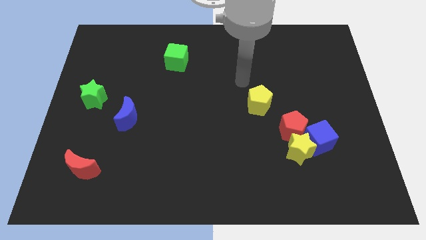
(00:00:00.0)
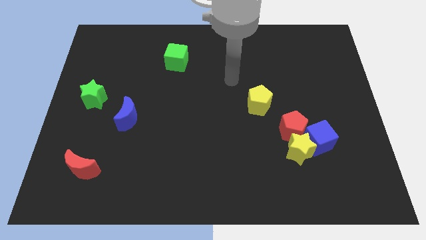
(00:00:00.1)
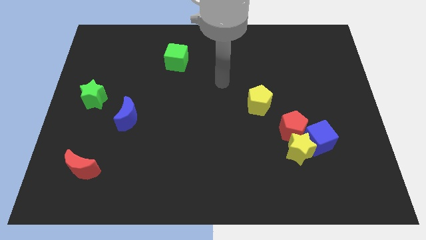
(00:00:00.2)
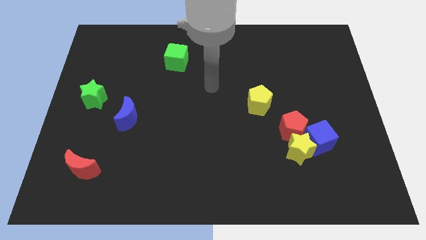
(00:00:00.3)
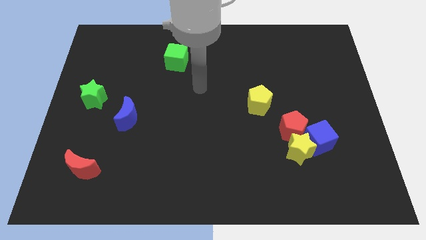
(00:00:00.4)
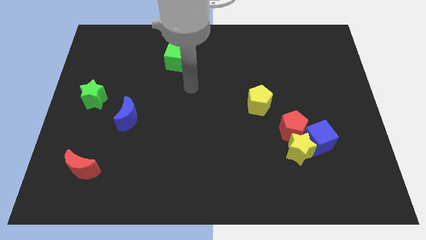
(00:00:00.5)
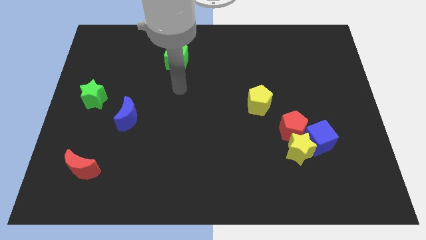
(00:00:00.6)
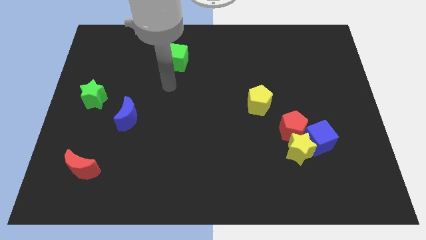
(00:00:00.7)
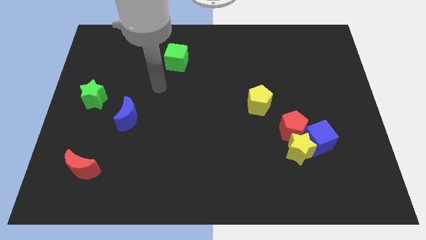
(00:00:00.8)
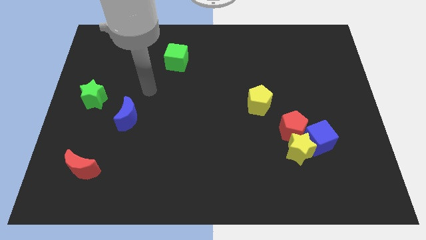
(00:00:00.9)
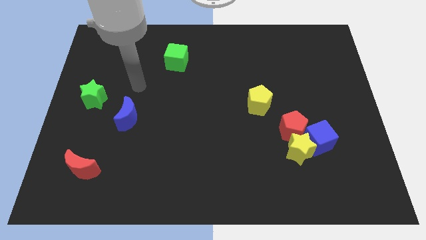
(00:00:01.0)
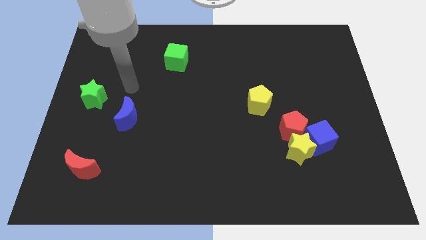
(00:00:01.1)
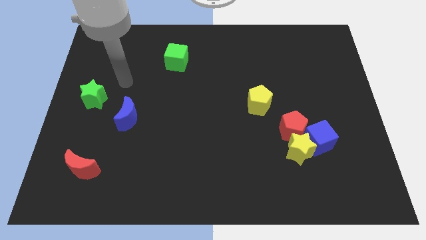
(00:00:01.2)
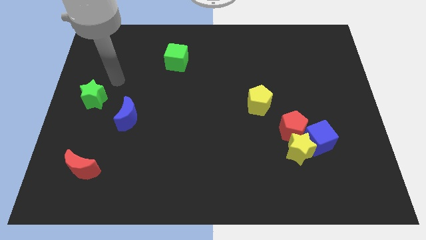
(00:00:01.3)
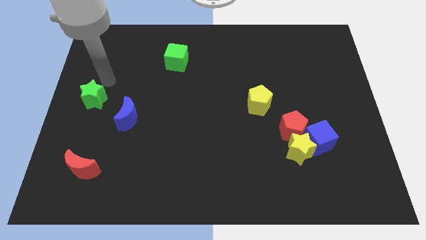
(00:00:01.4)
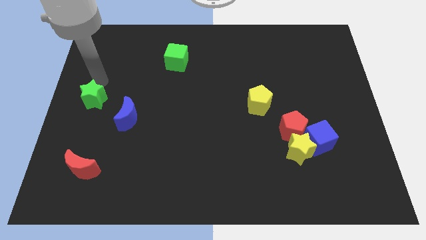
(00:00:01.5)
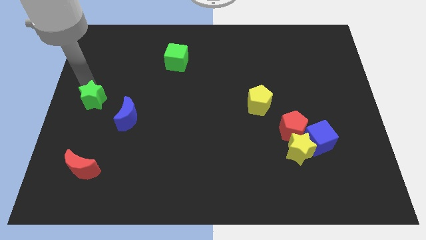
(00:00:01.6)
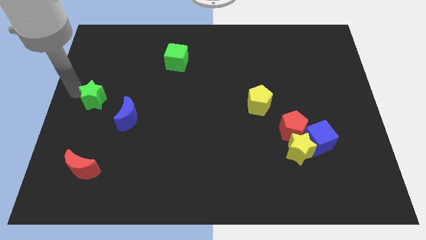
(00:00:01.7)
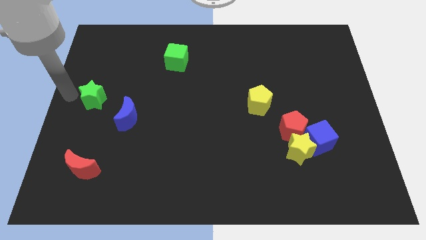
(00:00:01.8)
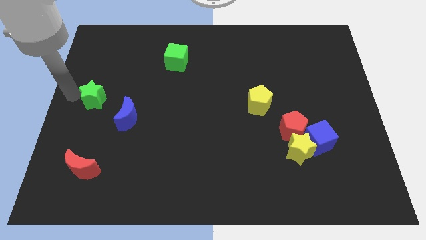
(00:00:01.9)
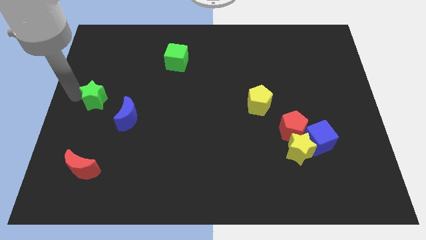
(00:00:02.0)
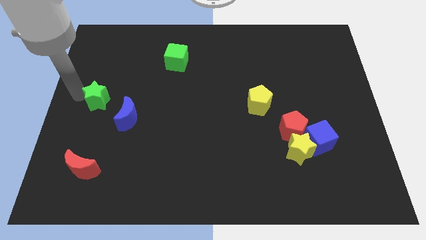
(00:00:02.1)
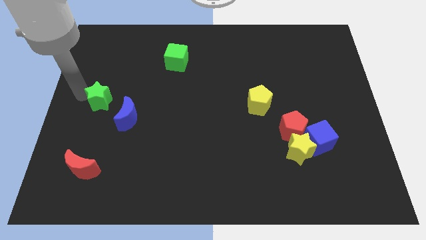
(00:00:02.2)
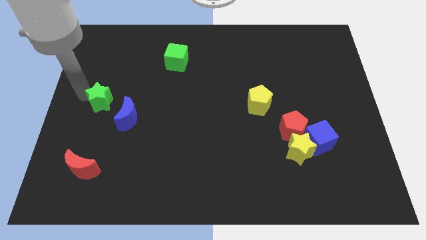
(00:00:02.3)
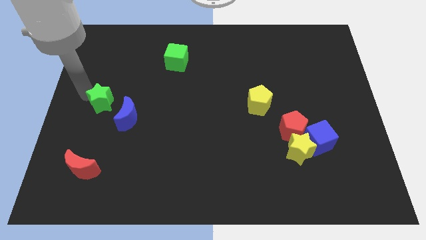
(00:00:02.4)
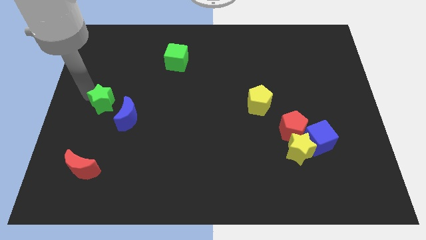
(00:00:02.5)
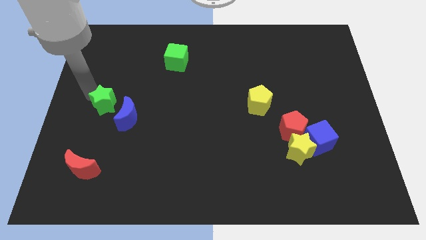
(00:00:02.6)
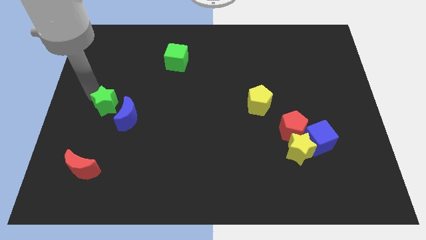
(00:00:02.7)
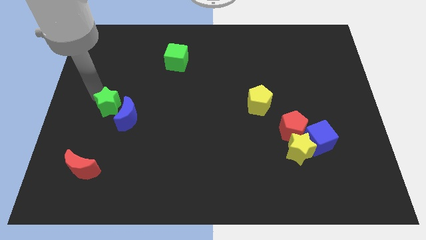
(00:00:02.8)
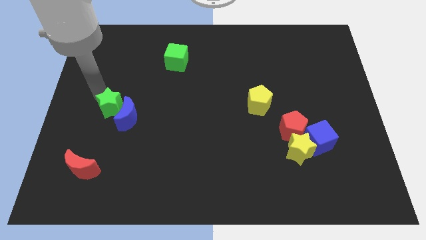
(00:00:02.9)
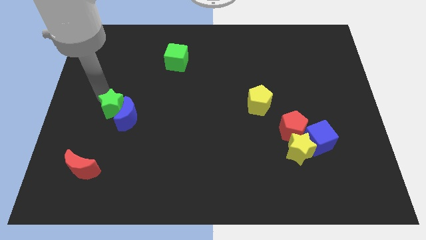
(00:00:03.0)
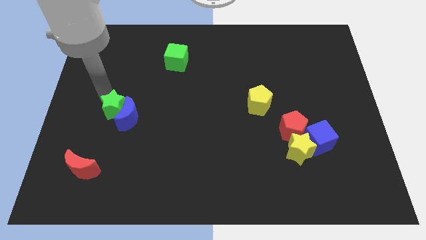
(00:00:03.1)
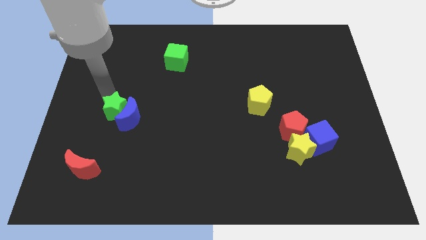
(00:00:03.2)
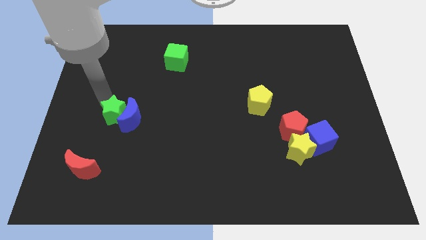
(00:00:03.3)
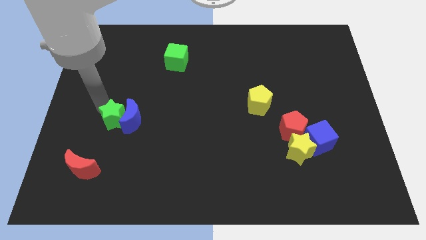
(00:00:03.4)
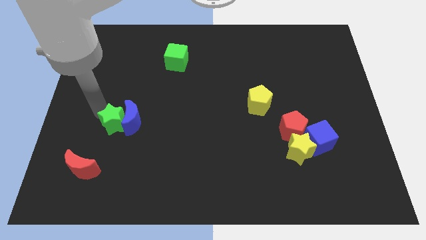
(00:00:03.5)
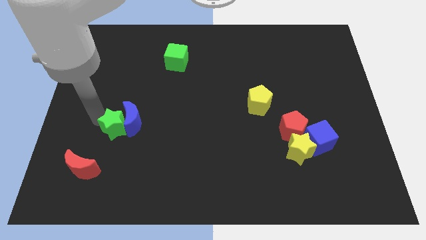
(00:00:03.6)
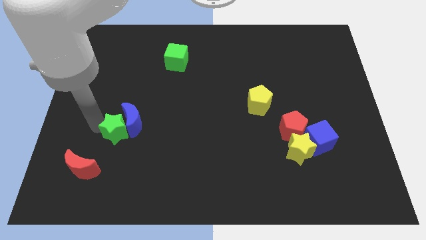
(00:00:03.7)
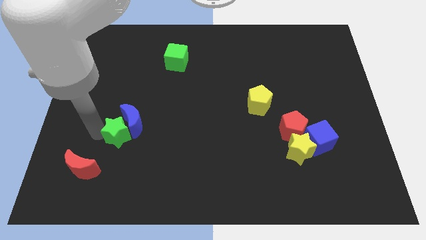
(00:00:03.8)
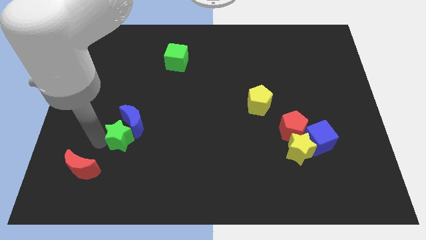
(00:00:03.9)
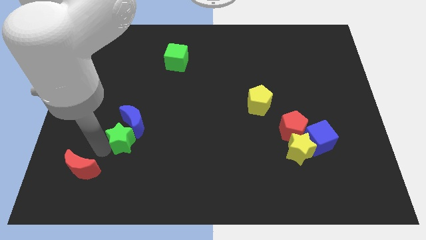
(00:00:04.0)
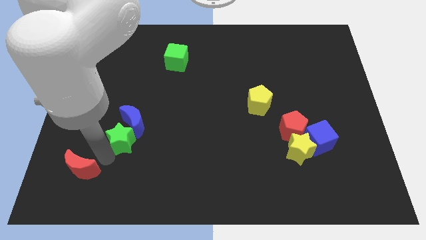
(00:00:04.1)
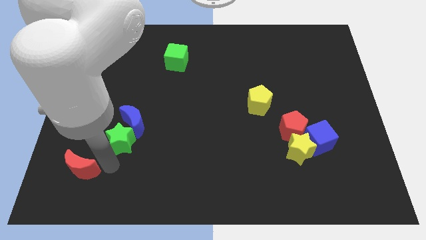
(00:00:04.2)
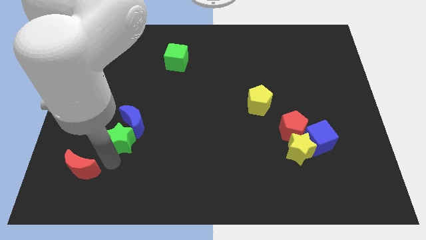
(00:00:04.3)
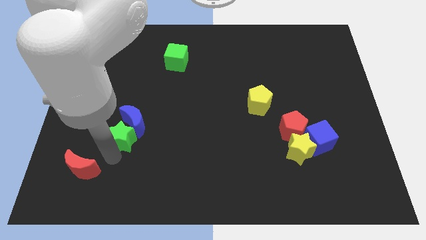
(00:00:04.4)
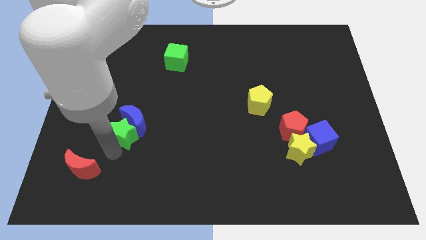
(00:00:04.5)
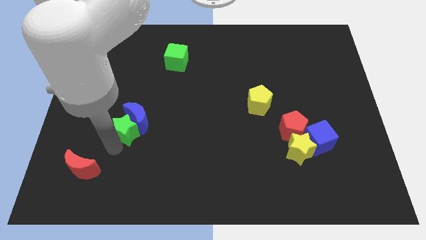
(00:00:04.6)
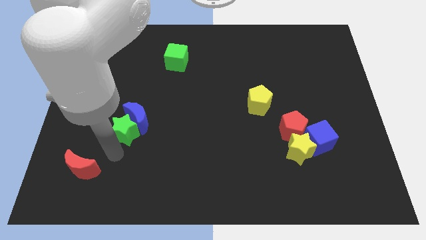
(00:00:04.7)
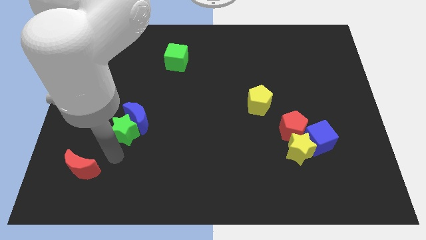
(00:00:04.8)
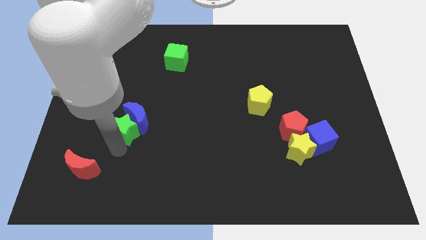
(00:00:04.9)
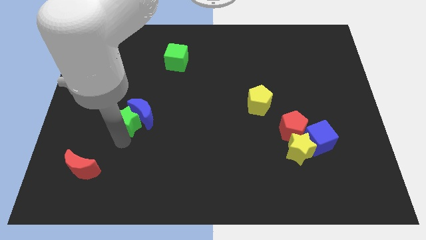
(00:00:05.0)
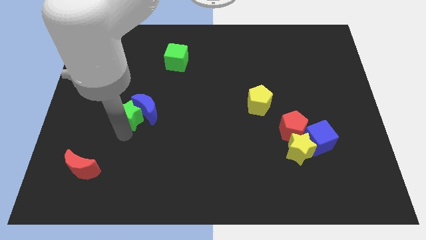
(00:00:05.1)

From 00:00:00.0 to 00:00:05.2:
move the green star slightly right

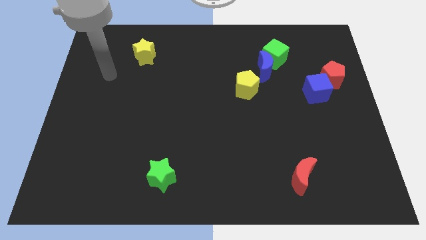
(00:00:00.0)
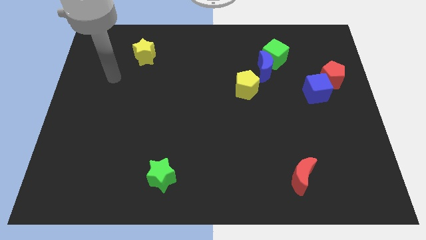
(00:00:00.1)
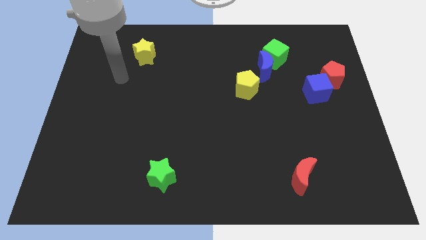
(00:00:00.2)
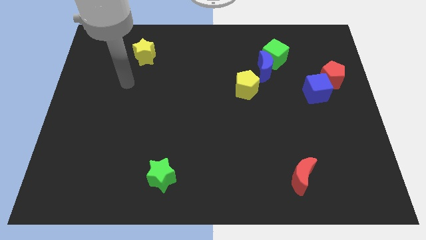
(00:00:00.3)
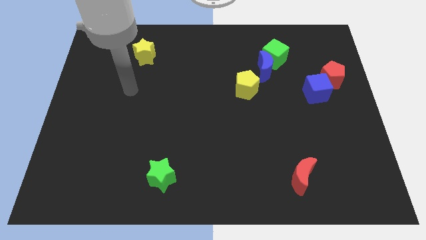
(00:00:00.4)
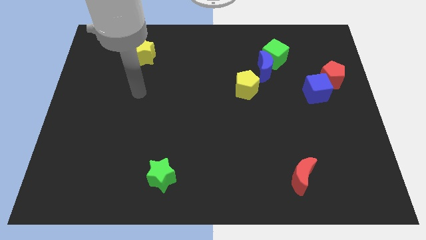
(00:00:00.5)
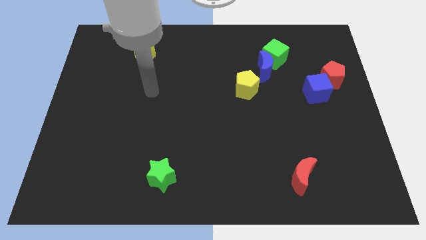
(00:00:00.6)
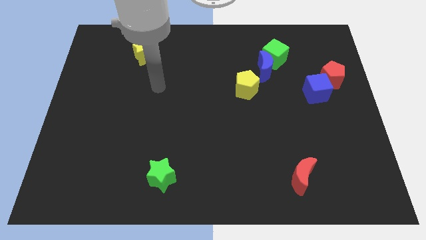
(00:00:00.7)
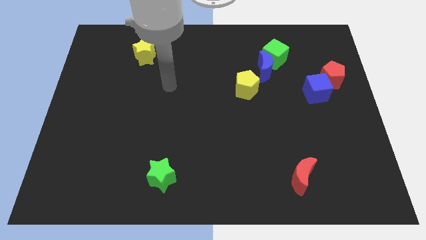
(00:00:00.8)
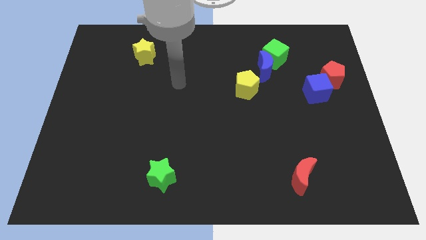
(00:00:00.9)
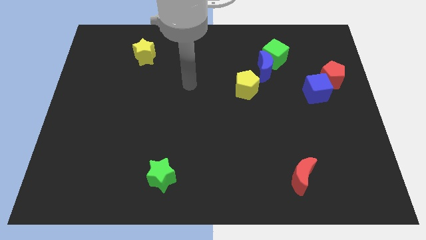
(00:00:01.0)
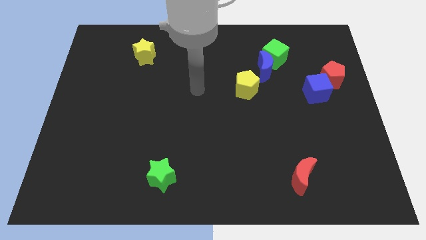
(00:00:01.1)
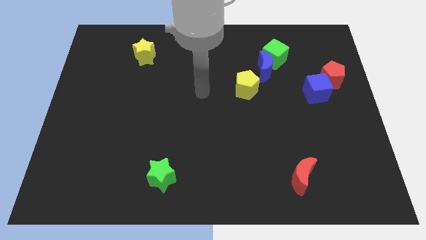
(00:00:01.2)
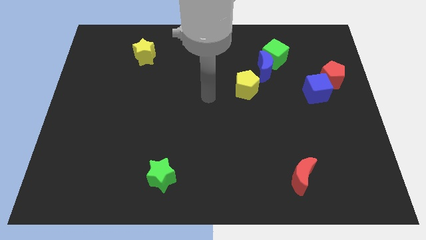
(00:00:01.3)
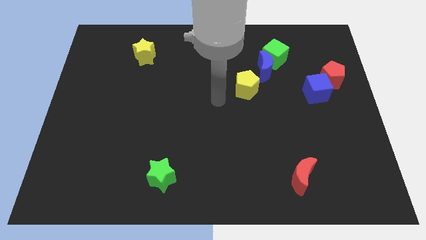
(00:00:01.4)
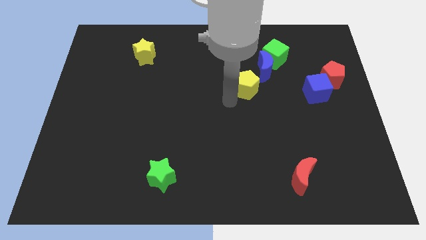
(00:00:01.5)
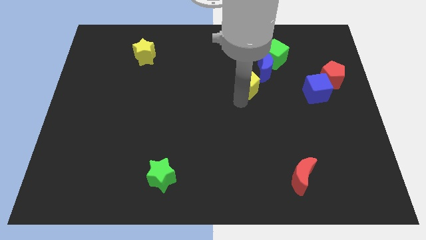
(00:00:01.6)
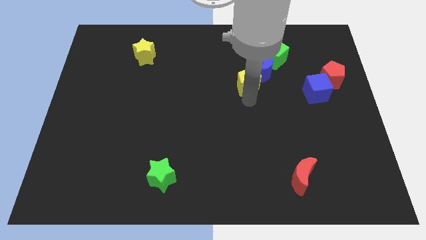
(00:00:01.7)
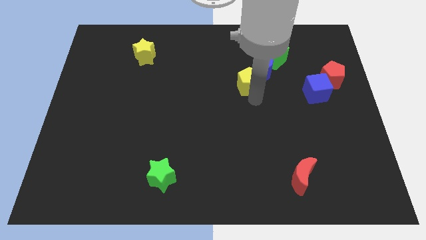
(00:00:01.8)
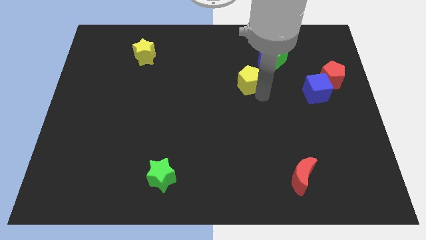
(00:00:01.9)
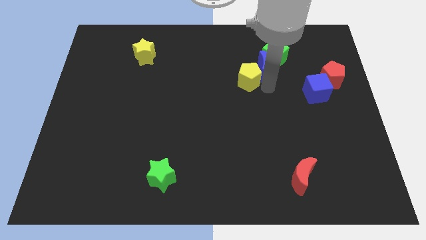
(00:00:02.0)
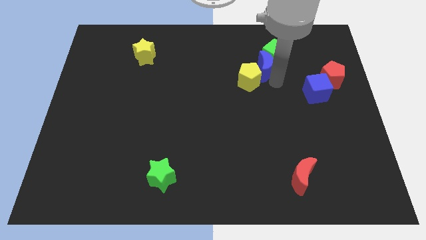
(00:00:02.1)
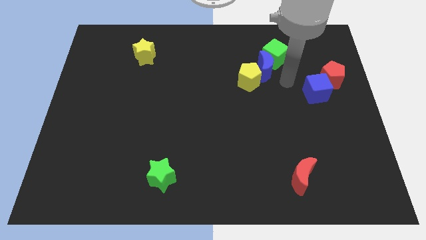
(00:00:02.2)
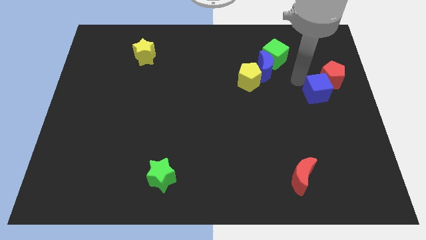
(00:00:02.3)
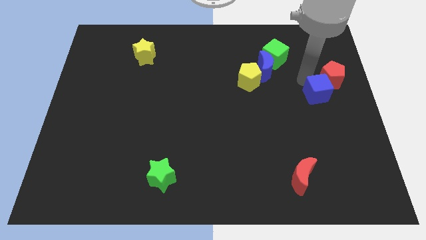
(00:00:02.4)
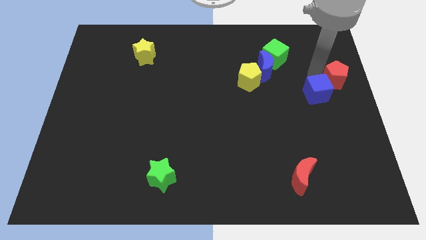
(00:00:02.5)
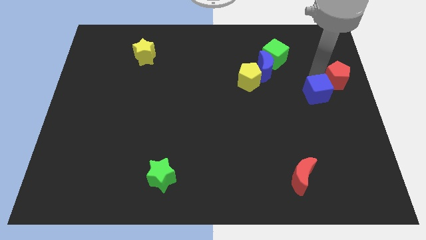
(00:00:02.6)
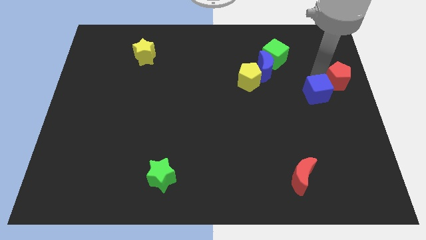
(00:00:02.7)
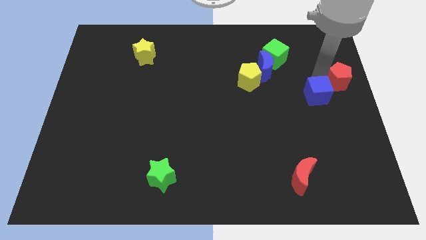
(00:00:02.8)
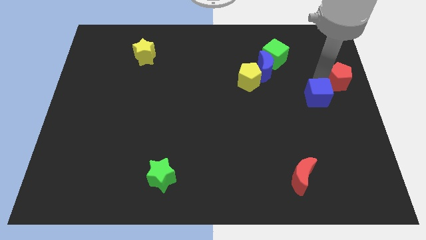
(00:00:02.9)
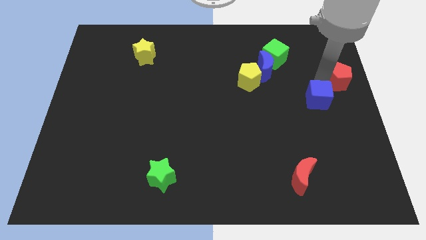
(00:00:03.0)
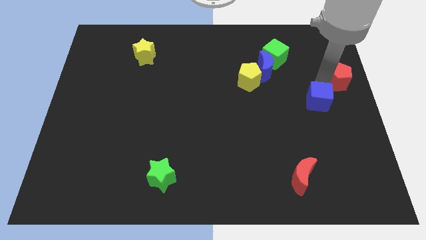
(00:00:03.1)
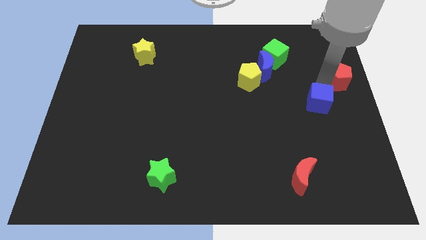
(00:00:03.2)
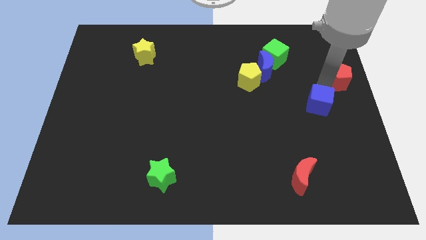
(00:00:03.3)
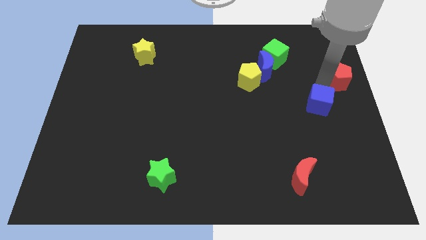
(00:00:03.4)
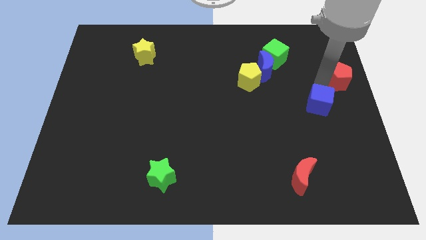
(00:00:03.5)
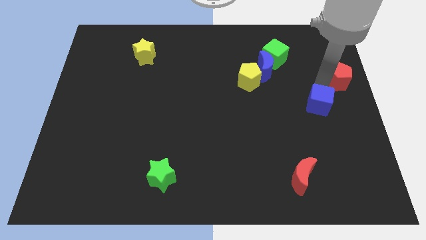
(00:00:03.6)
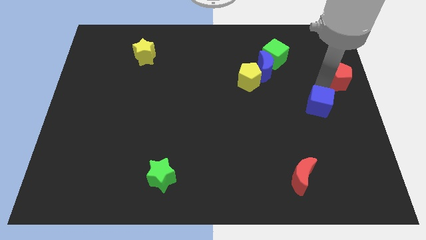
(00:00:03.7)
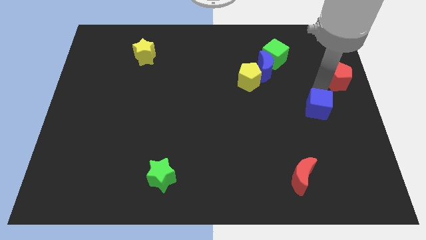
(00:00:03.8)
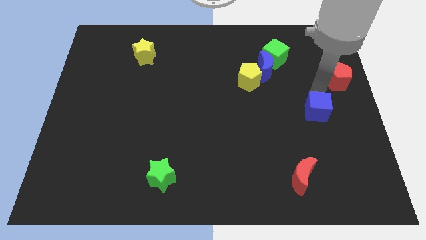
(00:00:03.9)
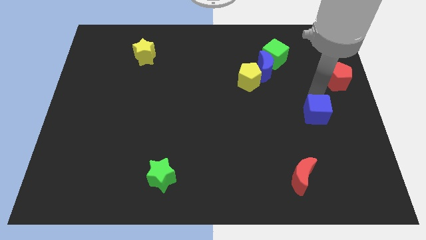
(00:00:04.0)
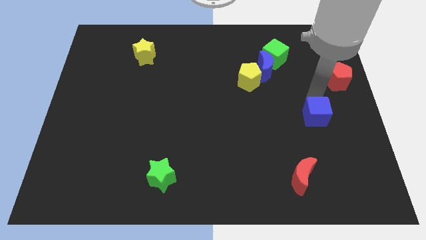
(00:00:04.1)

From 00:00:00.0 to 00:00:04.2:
slide the blue cube downwards a little bit
